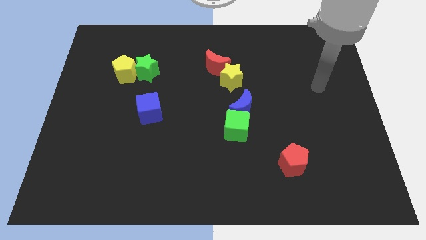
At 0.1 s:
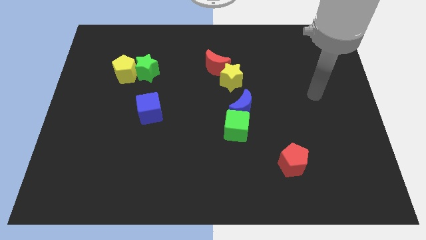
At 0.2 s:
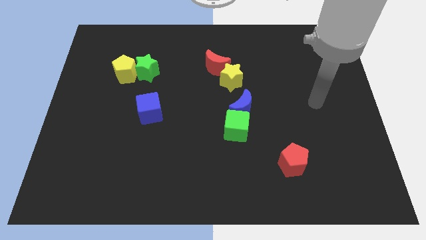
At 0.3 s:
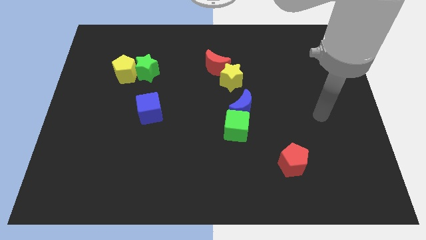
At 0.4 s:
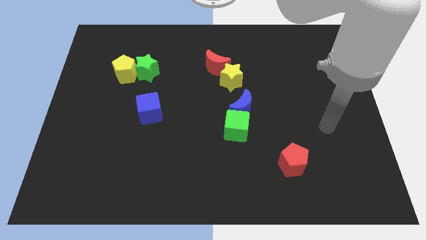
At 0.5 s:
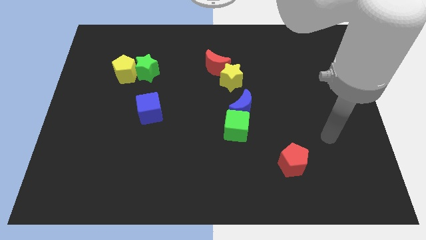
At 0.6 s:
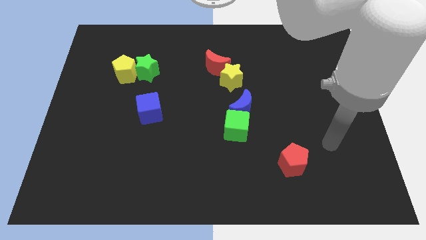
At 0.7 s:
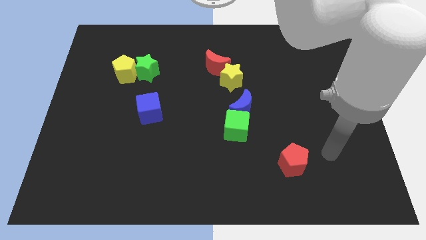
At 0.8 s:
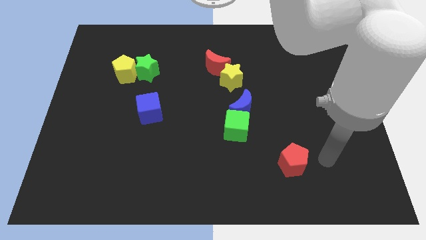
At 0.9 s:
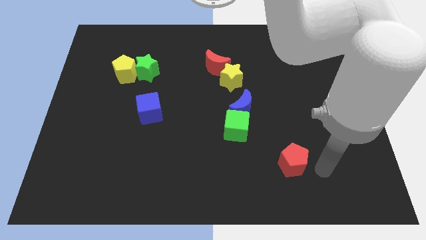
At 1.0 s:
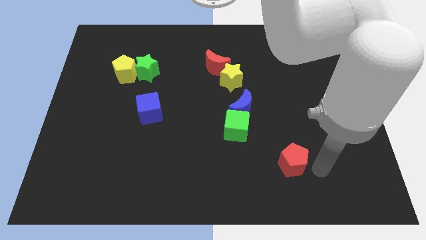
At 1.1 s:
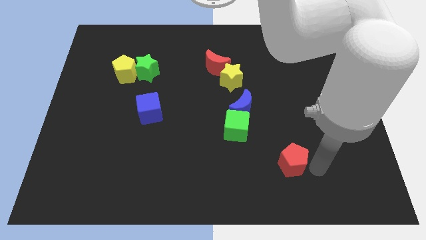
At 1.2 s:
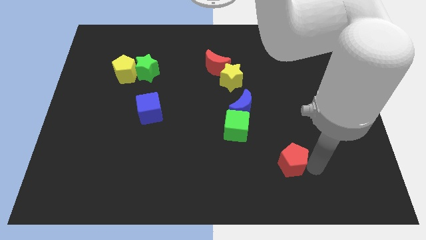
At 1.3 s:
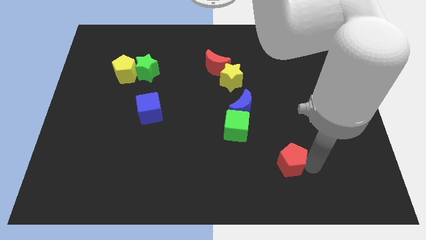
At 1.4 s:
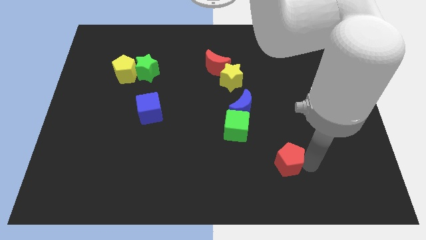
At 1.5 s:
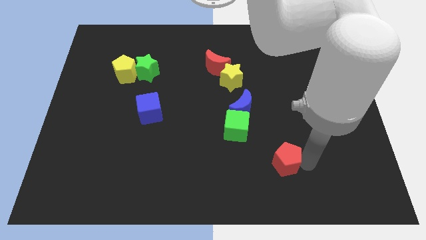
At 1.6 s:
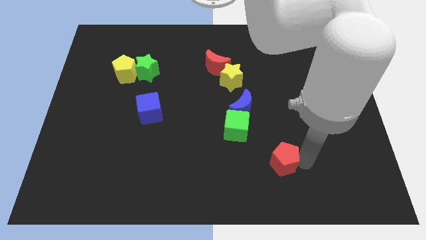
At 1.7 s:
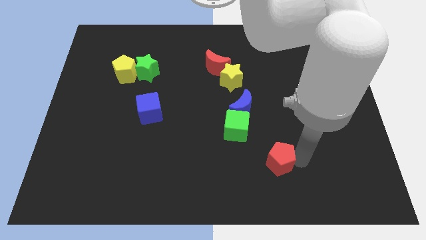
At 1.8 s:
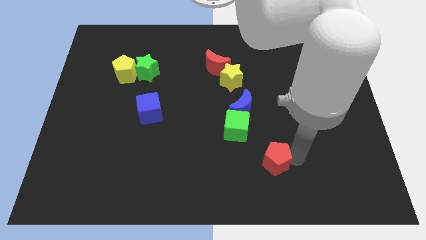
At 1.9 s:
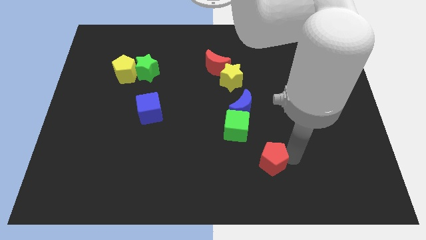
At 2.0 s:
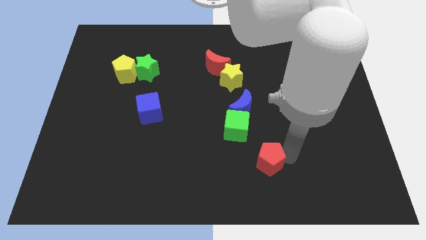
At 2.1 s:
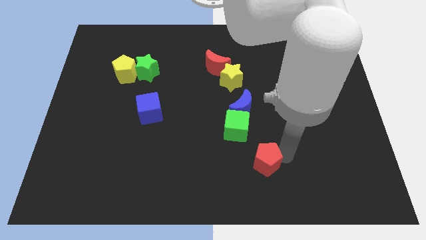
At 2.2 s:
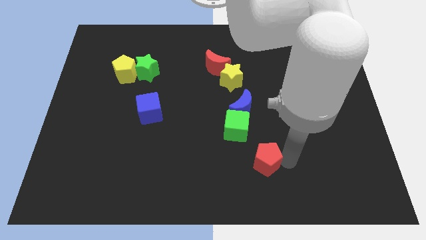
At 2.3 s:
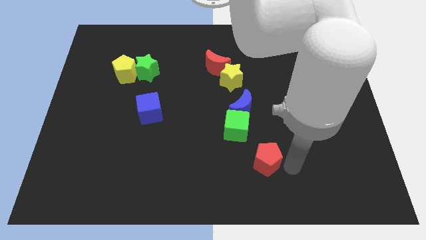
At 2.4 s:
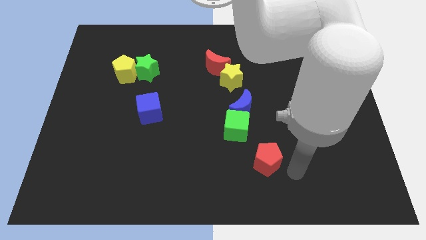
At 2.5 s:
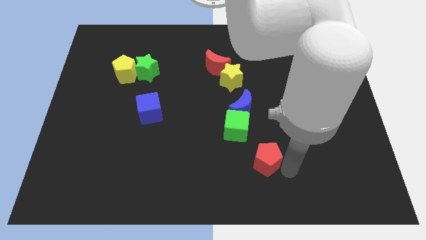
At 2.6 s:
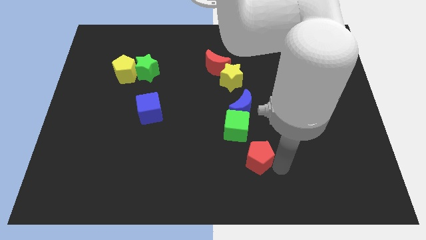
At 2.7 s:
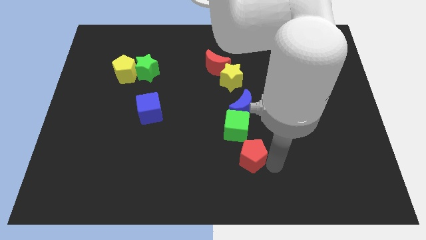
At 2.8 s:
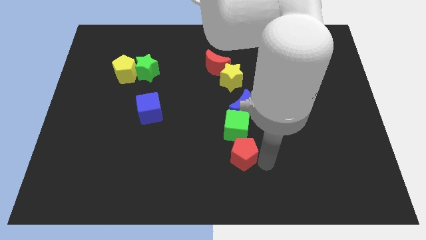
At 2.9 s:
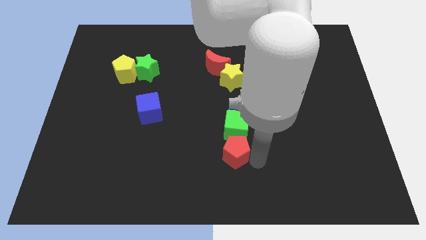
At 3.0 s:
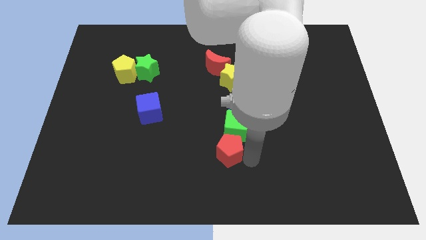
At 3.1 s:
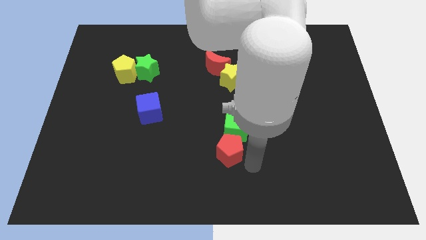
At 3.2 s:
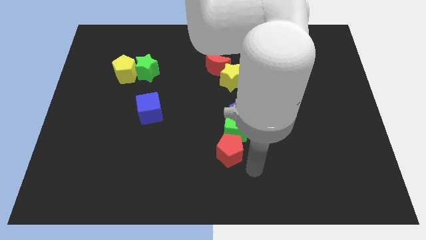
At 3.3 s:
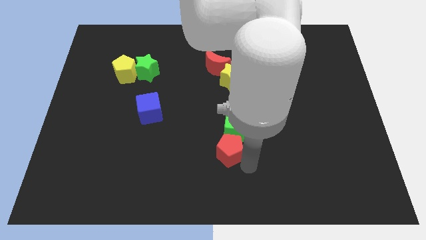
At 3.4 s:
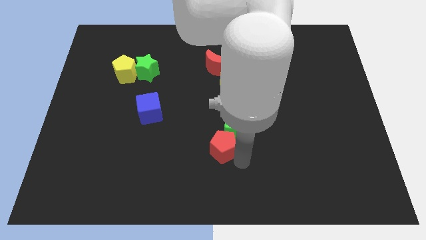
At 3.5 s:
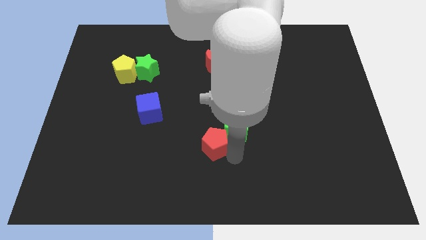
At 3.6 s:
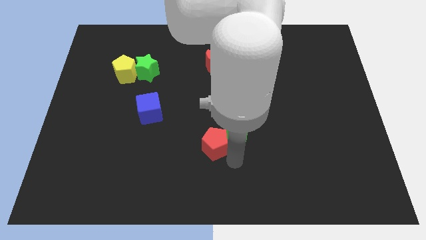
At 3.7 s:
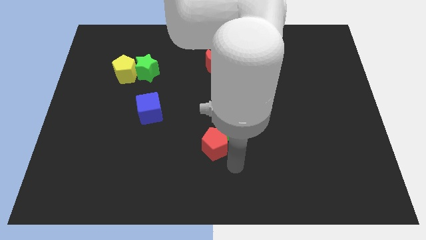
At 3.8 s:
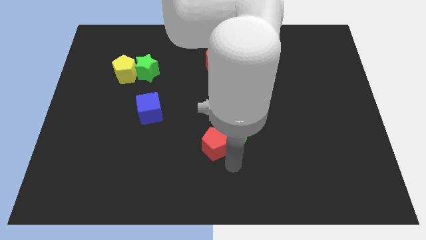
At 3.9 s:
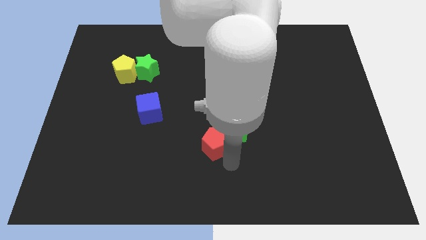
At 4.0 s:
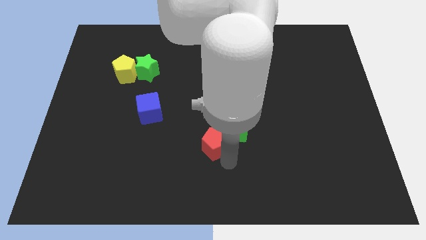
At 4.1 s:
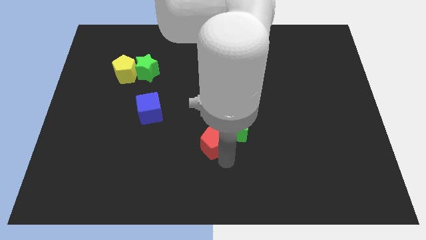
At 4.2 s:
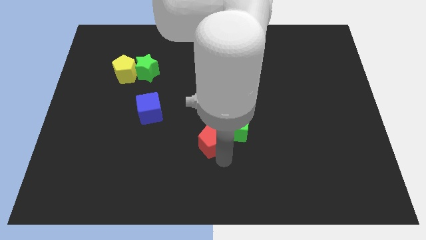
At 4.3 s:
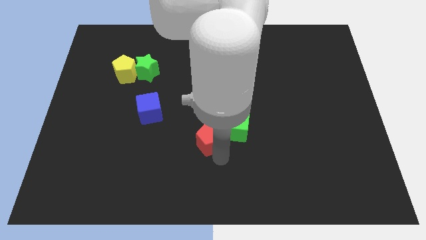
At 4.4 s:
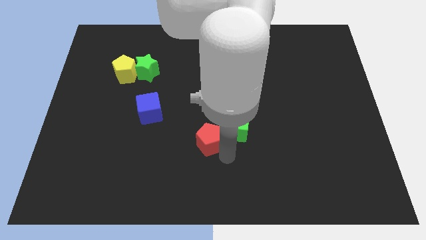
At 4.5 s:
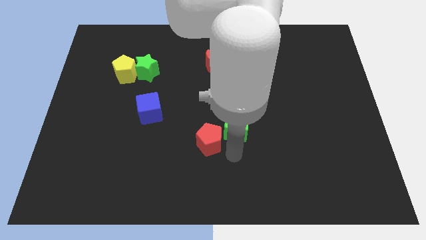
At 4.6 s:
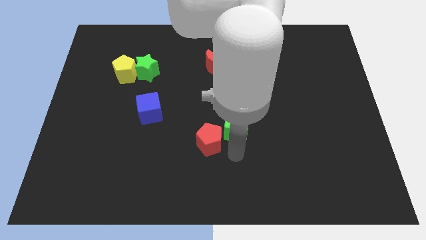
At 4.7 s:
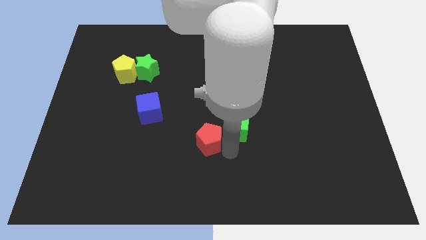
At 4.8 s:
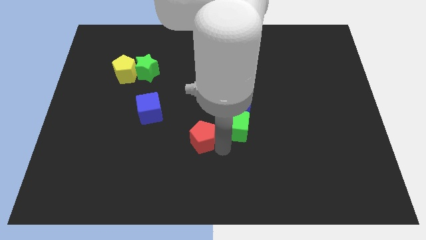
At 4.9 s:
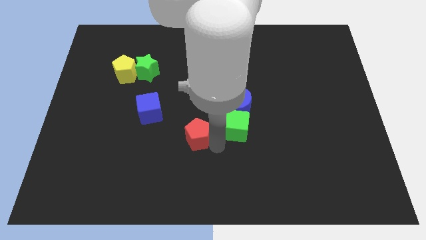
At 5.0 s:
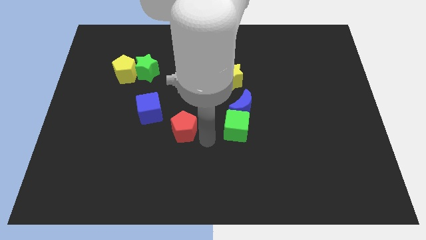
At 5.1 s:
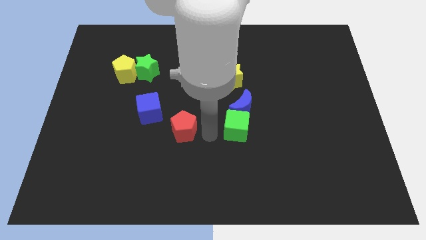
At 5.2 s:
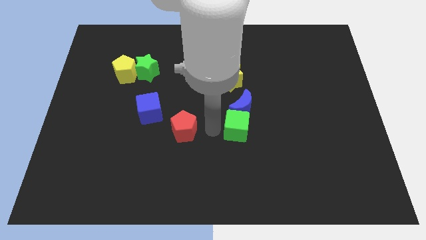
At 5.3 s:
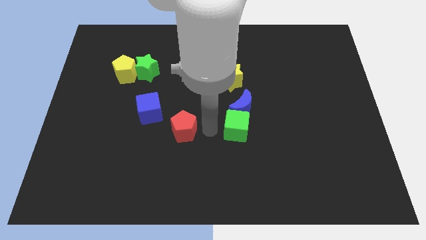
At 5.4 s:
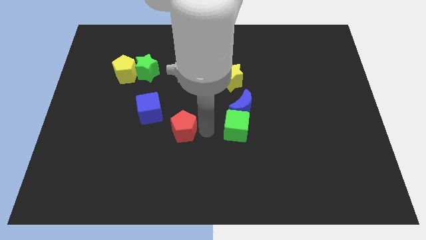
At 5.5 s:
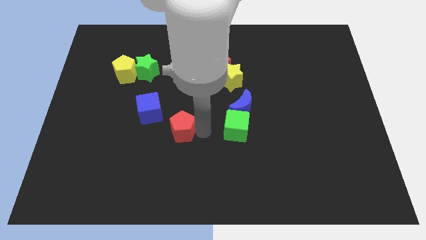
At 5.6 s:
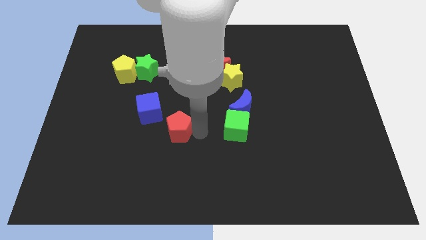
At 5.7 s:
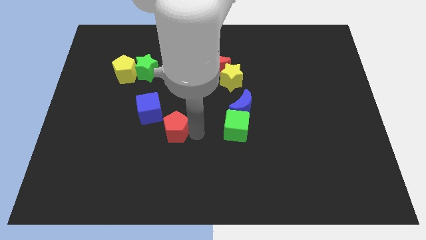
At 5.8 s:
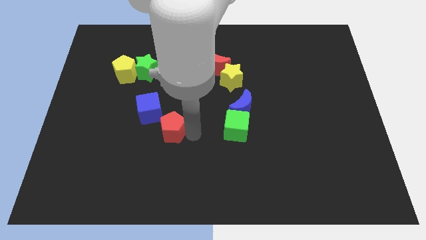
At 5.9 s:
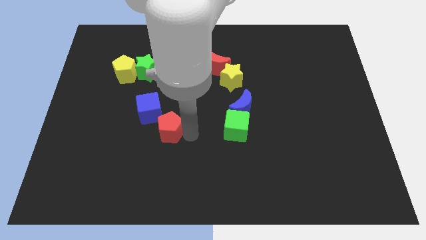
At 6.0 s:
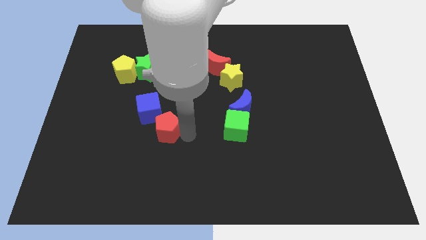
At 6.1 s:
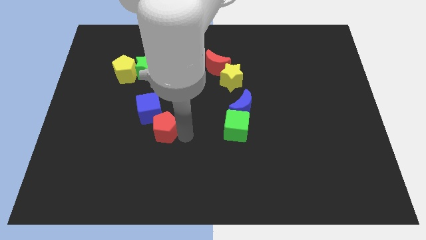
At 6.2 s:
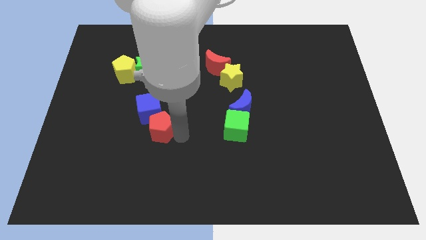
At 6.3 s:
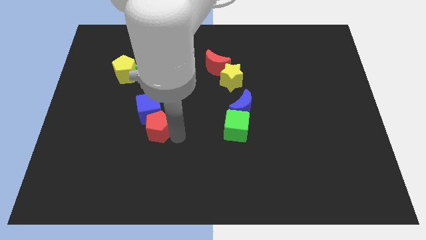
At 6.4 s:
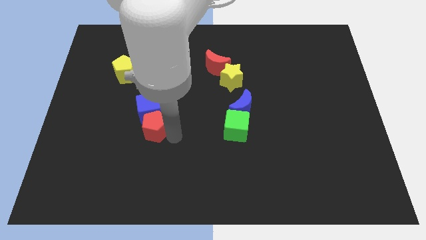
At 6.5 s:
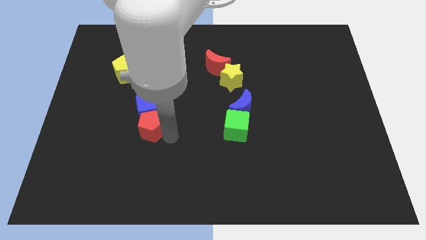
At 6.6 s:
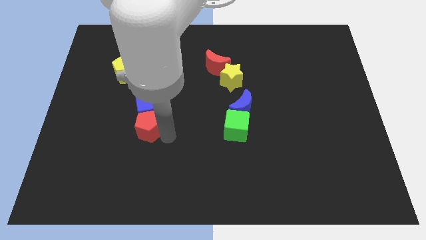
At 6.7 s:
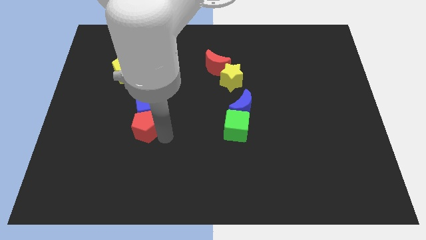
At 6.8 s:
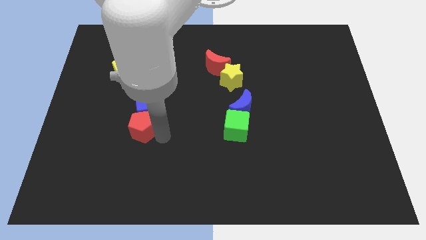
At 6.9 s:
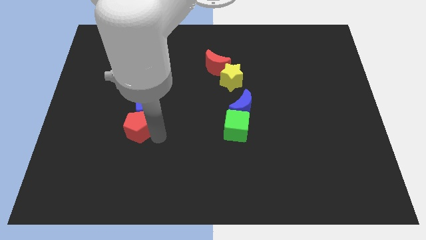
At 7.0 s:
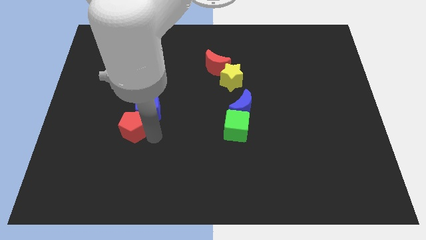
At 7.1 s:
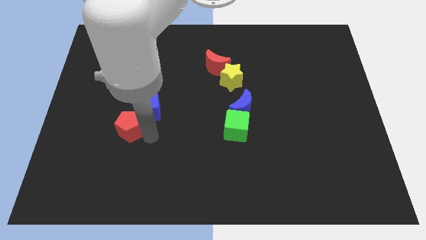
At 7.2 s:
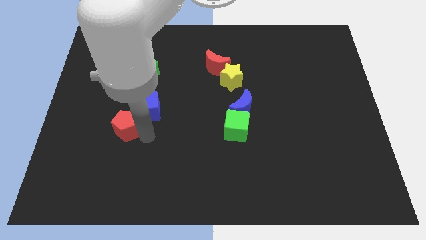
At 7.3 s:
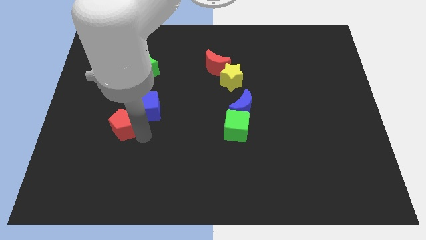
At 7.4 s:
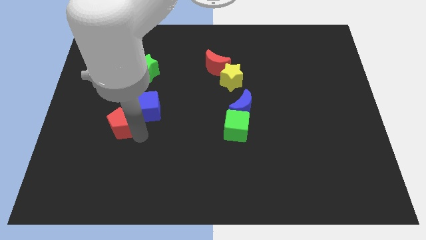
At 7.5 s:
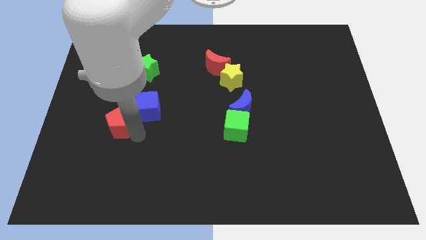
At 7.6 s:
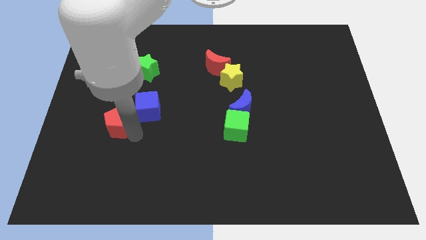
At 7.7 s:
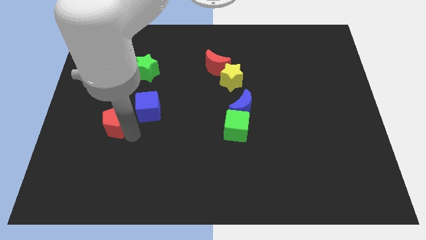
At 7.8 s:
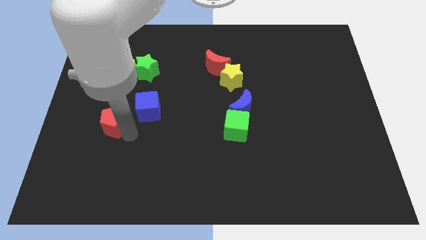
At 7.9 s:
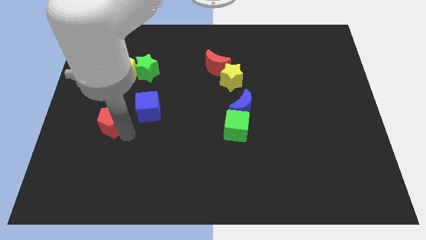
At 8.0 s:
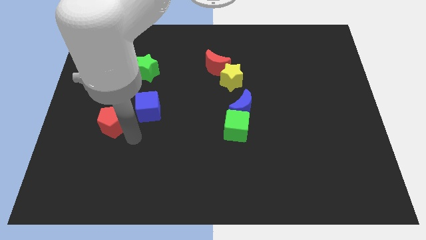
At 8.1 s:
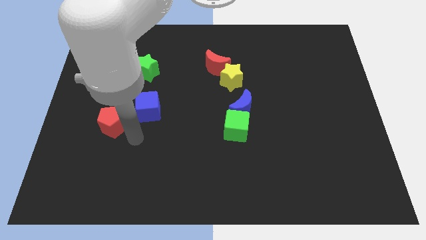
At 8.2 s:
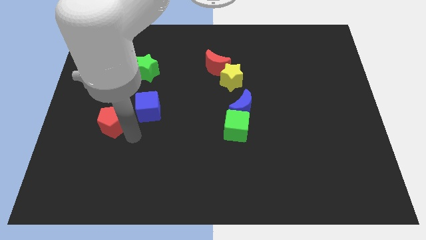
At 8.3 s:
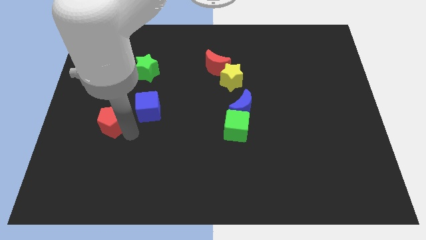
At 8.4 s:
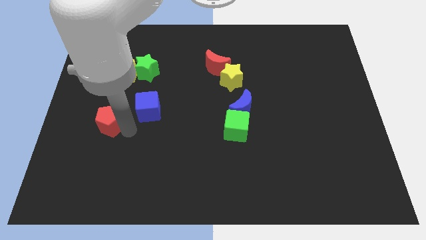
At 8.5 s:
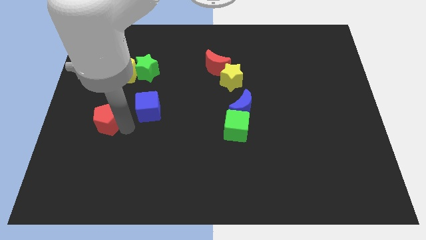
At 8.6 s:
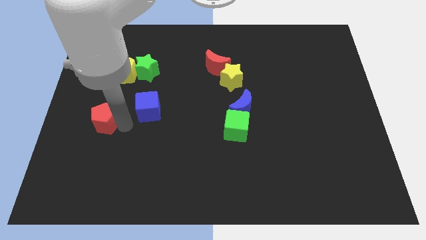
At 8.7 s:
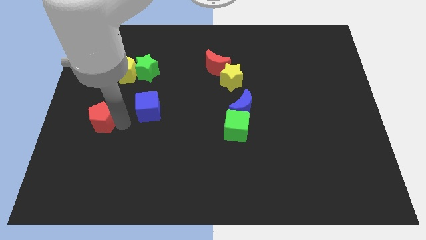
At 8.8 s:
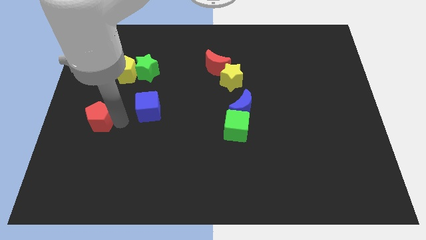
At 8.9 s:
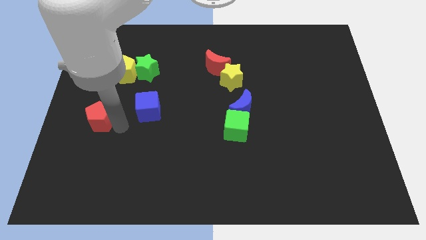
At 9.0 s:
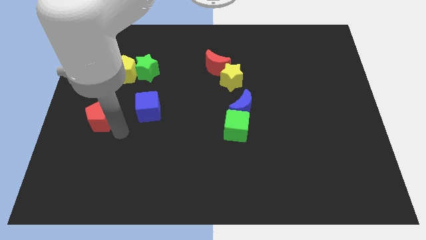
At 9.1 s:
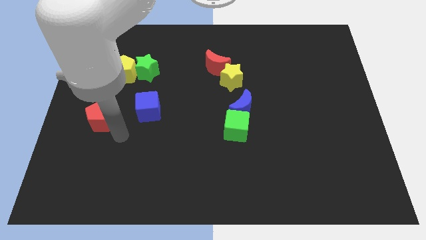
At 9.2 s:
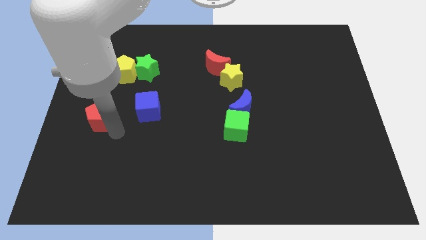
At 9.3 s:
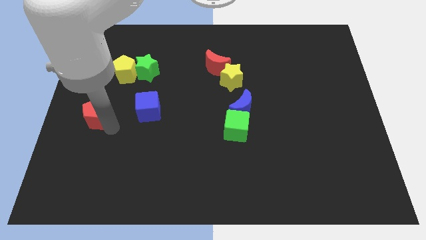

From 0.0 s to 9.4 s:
slide the red pentagon to the left side of the board
